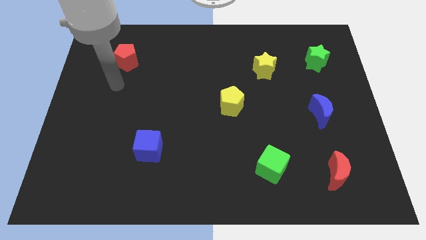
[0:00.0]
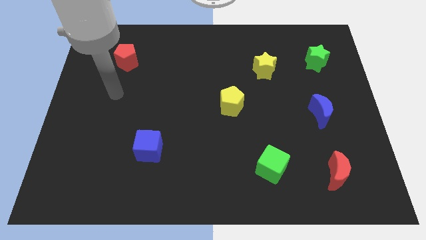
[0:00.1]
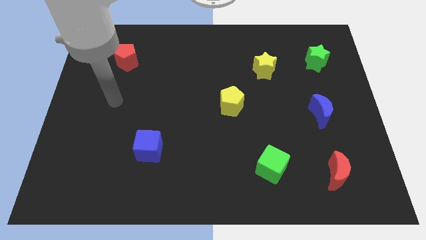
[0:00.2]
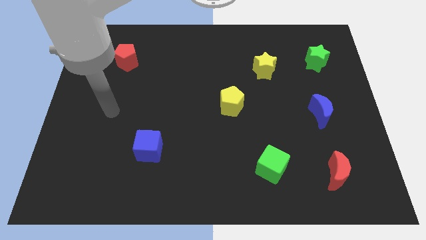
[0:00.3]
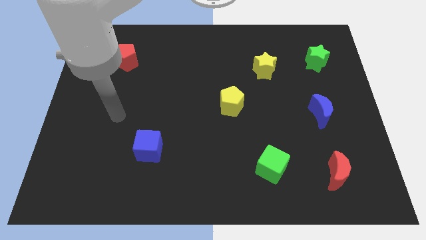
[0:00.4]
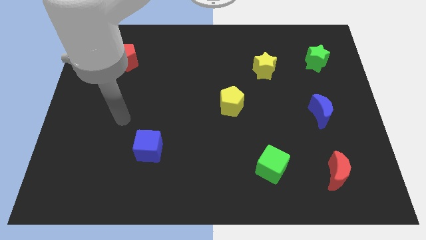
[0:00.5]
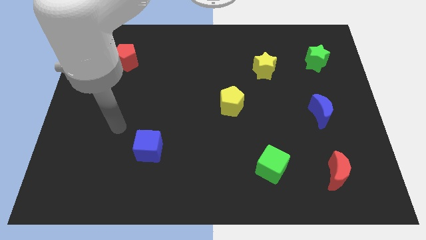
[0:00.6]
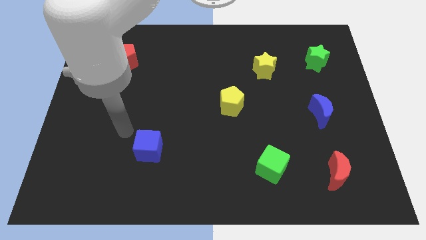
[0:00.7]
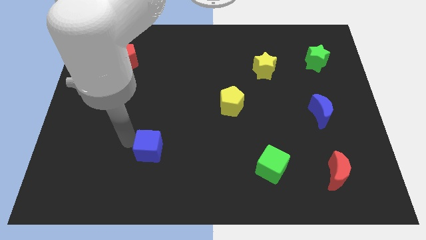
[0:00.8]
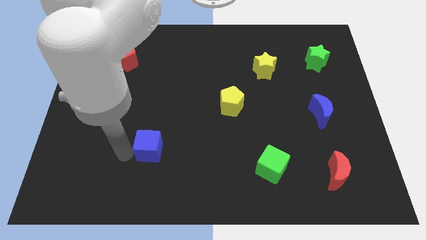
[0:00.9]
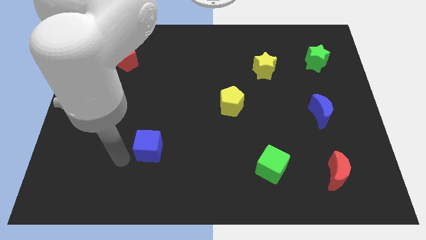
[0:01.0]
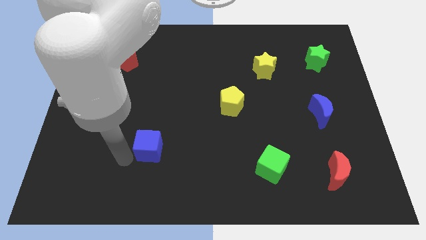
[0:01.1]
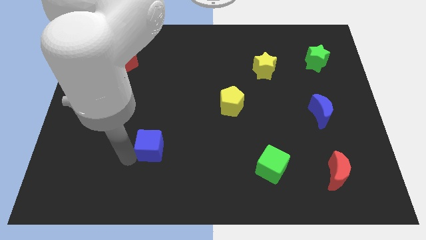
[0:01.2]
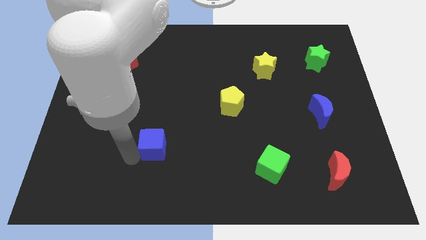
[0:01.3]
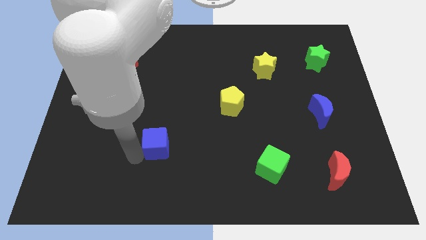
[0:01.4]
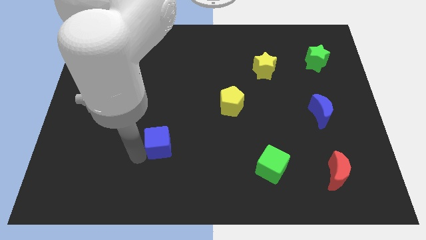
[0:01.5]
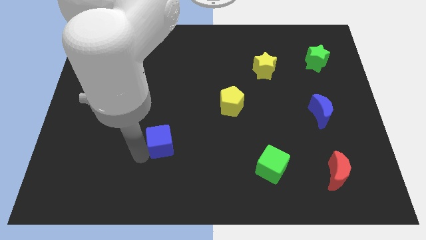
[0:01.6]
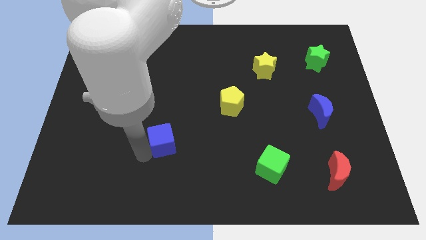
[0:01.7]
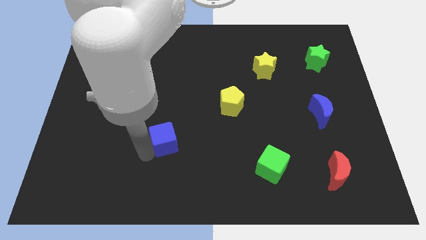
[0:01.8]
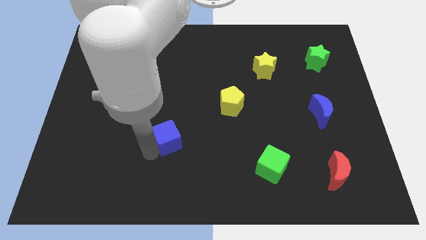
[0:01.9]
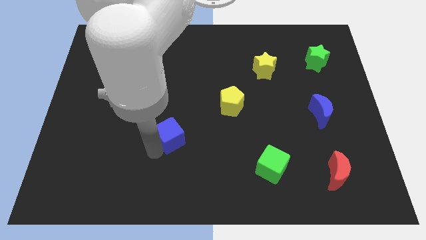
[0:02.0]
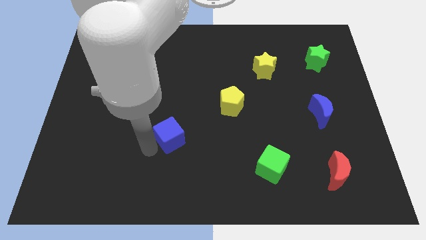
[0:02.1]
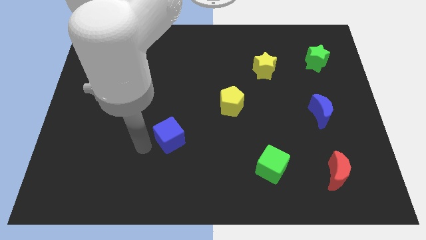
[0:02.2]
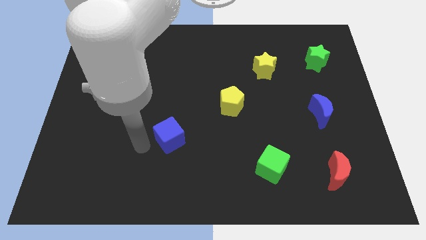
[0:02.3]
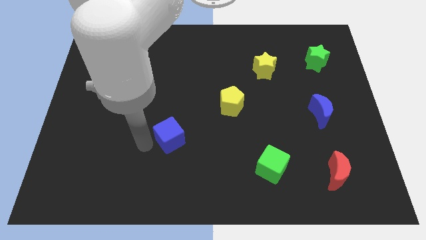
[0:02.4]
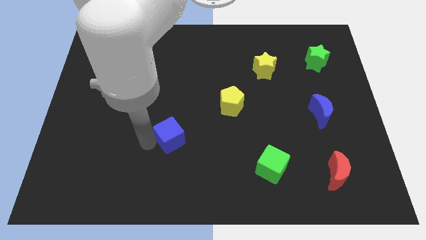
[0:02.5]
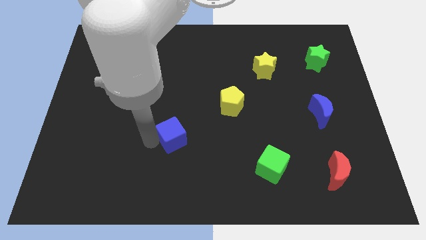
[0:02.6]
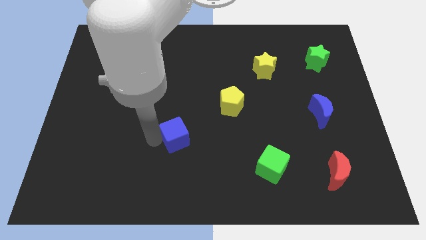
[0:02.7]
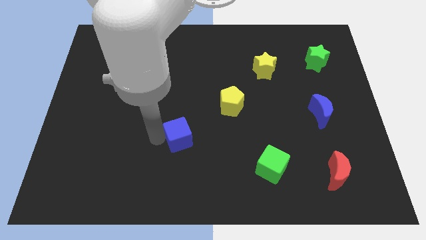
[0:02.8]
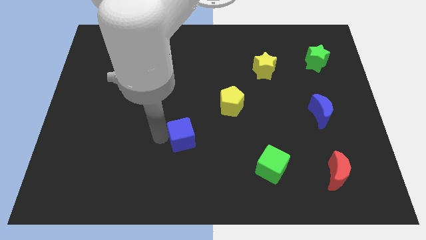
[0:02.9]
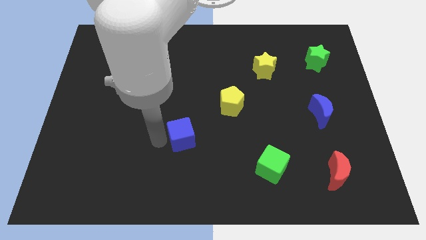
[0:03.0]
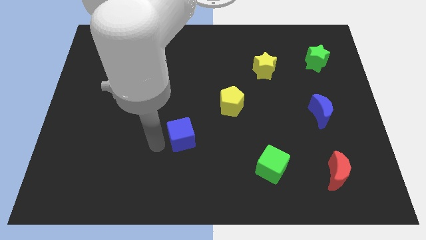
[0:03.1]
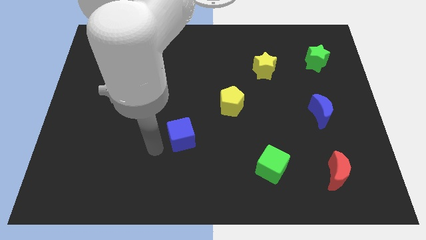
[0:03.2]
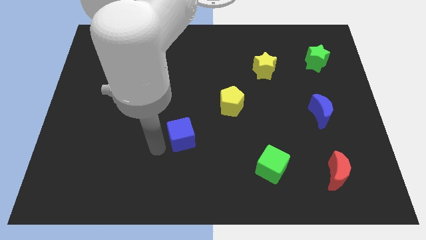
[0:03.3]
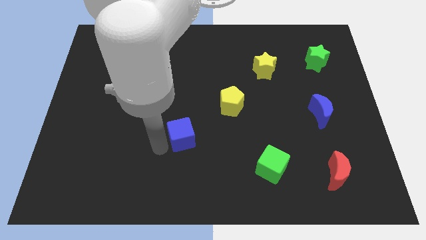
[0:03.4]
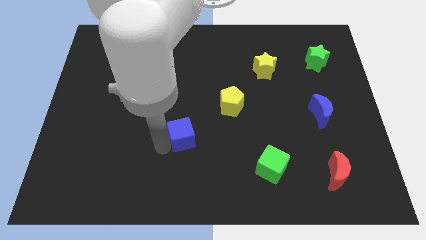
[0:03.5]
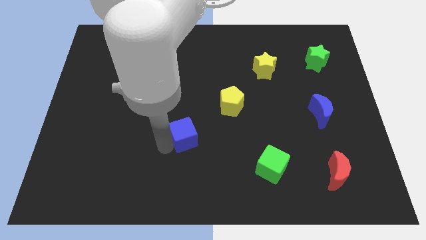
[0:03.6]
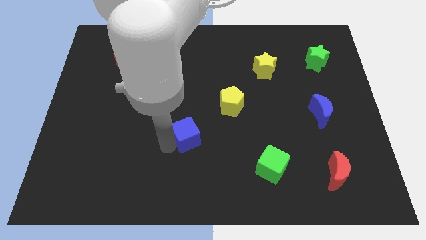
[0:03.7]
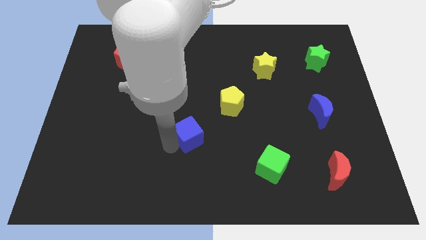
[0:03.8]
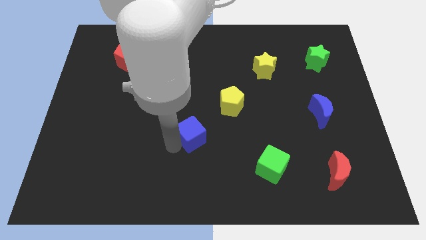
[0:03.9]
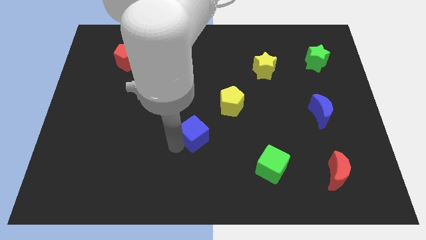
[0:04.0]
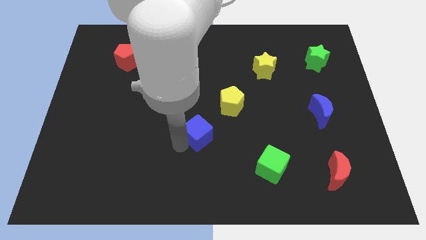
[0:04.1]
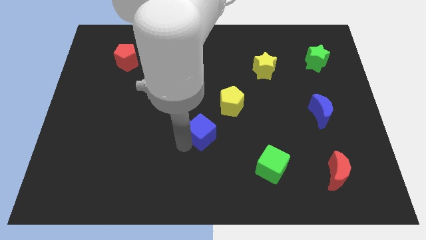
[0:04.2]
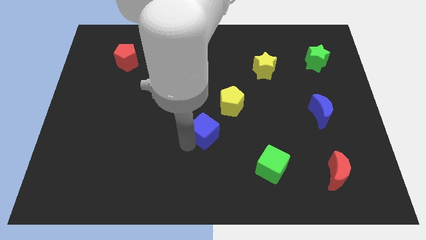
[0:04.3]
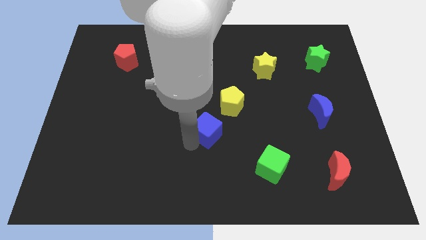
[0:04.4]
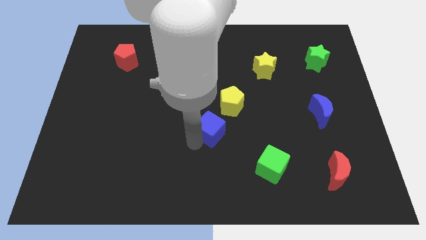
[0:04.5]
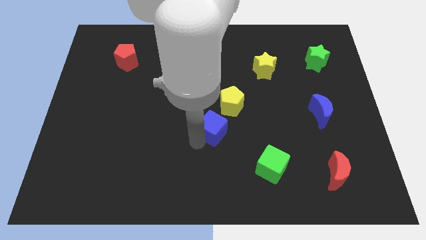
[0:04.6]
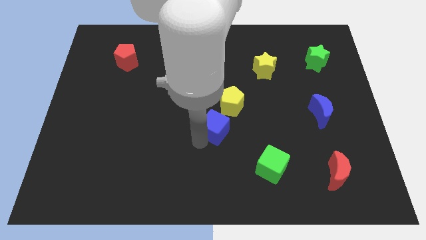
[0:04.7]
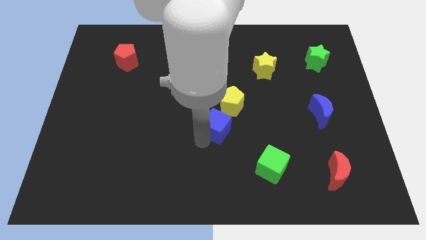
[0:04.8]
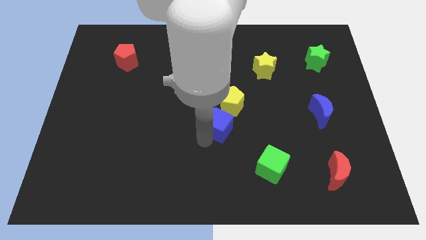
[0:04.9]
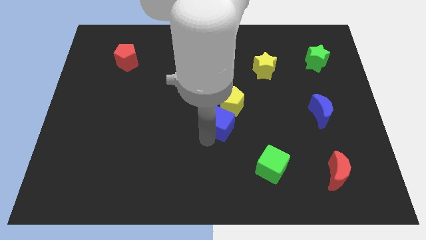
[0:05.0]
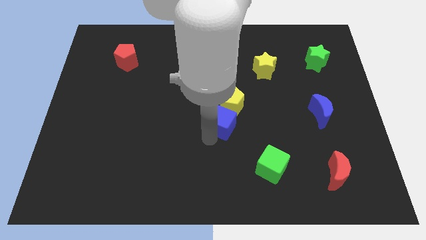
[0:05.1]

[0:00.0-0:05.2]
slide the blue cube towards the yellow pentagon

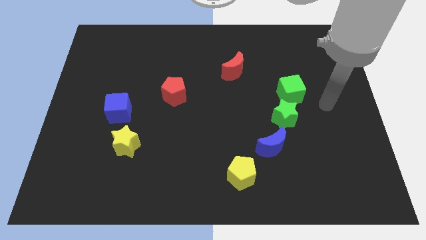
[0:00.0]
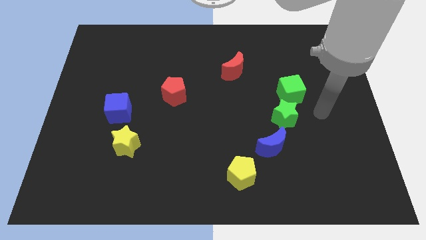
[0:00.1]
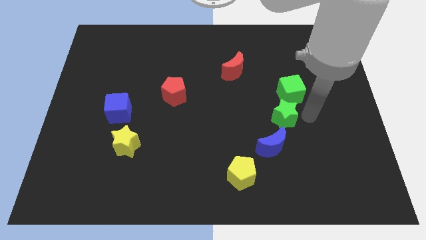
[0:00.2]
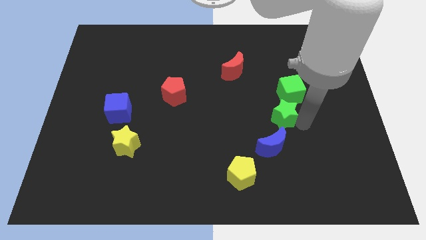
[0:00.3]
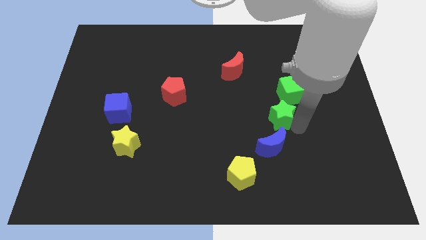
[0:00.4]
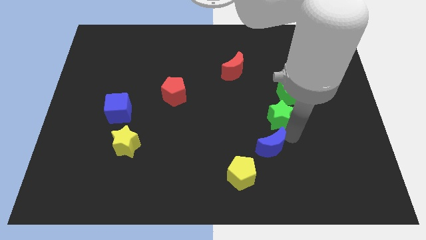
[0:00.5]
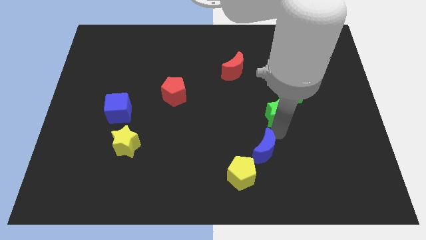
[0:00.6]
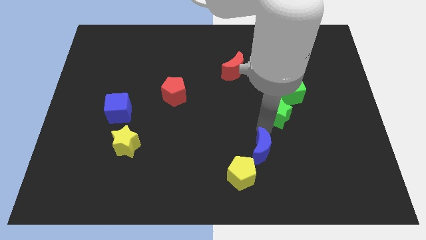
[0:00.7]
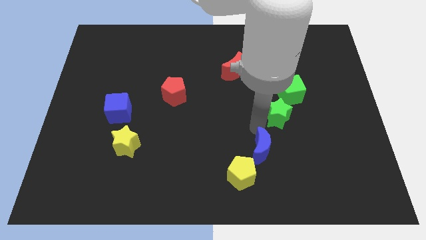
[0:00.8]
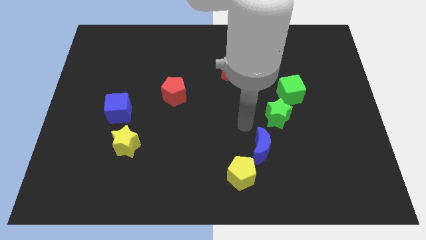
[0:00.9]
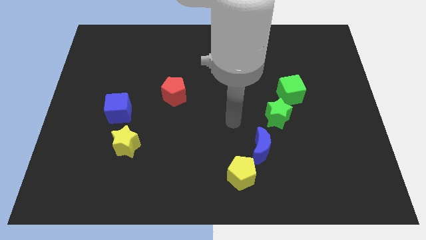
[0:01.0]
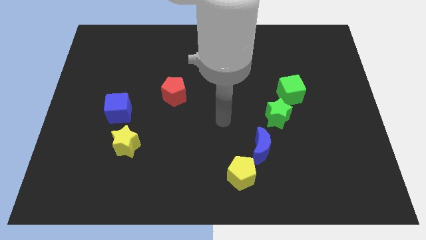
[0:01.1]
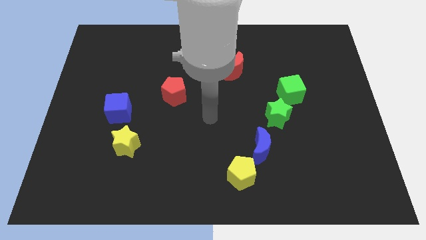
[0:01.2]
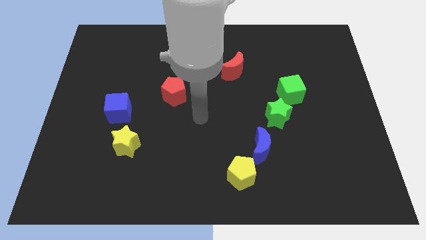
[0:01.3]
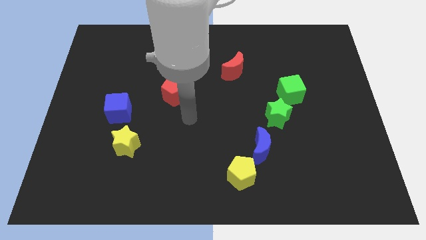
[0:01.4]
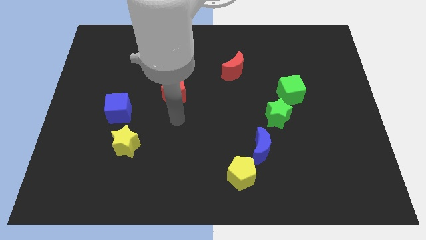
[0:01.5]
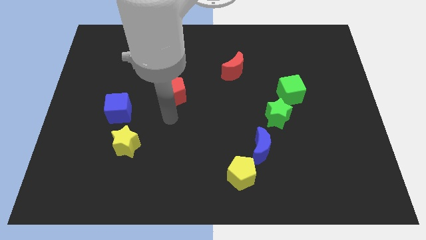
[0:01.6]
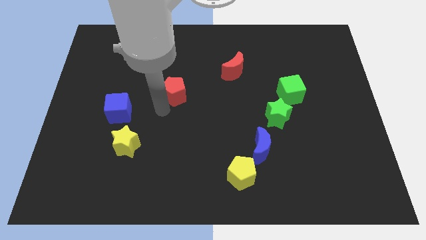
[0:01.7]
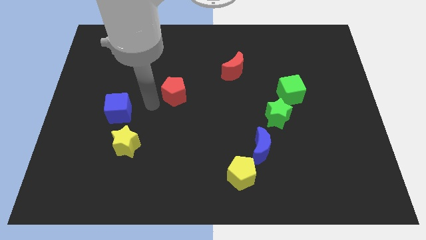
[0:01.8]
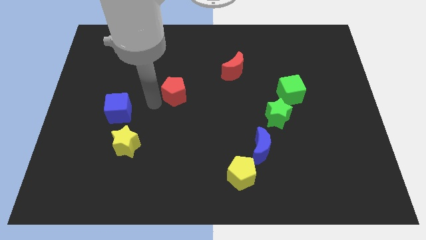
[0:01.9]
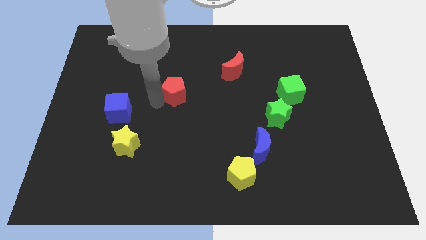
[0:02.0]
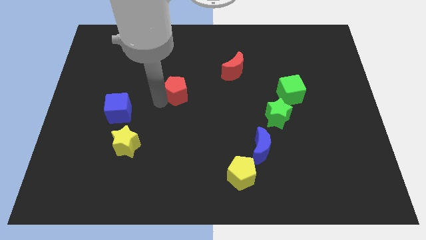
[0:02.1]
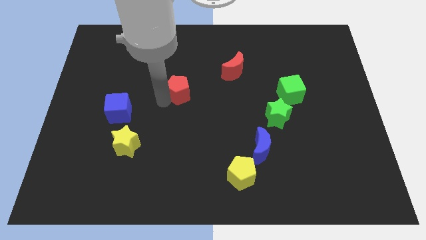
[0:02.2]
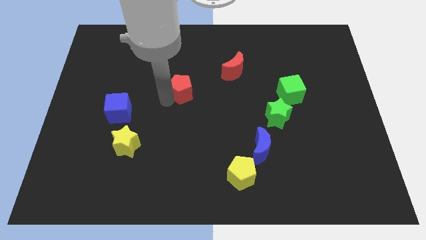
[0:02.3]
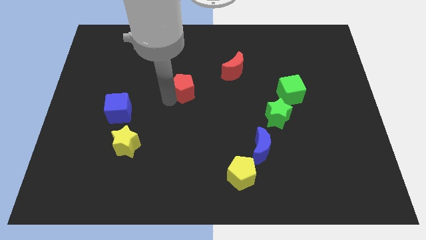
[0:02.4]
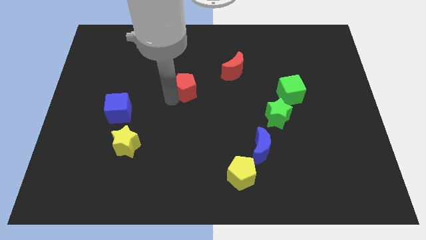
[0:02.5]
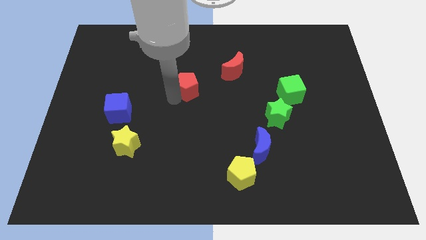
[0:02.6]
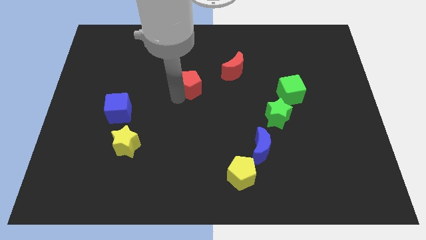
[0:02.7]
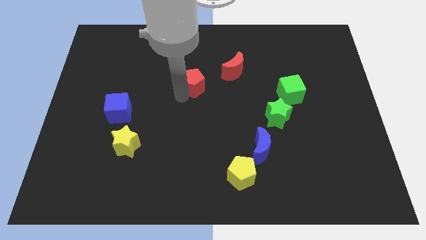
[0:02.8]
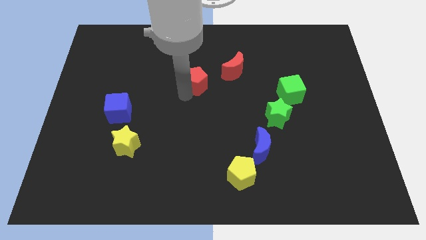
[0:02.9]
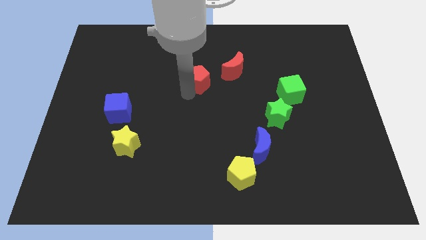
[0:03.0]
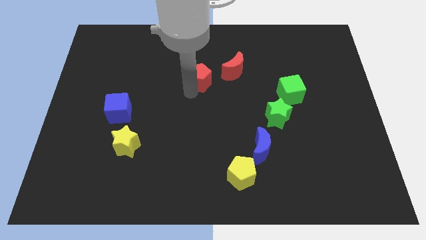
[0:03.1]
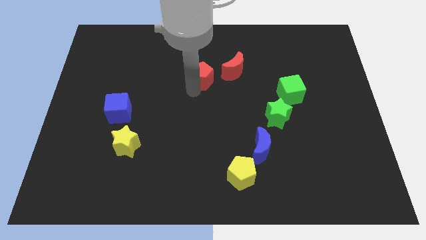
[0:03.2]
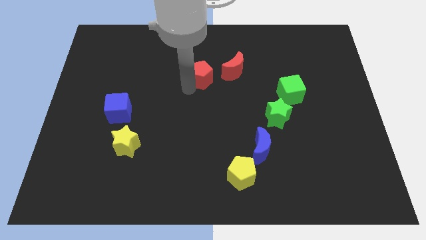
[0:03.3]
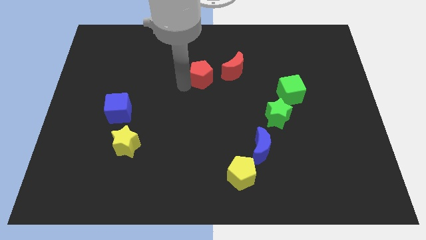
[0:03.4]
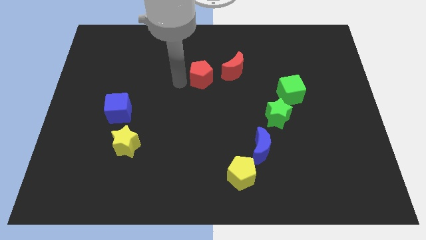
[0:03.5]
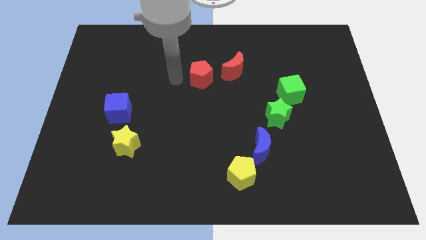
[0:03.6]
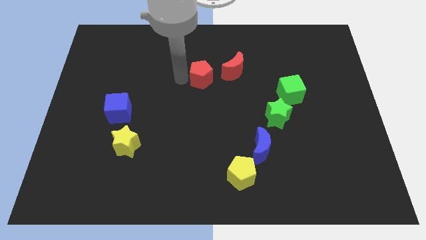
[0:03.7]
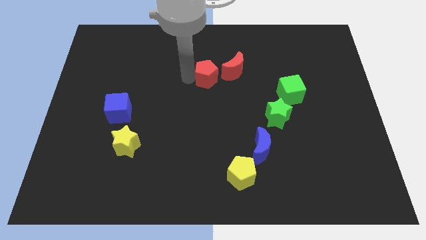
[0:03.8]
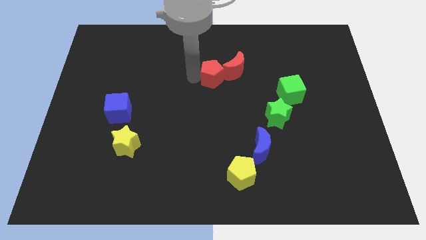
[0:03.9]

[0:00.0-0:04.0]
push the red pentagon towards the red moon
